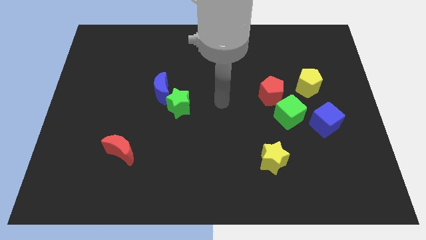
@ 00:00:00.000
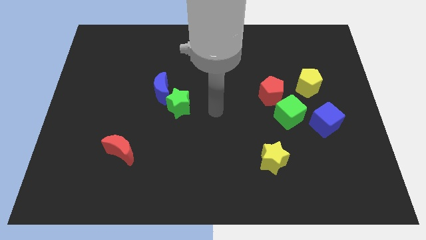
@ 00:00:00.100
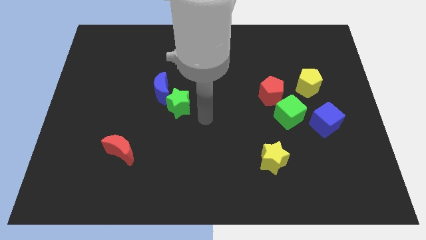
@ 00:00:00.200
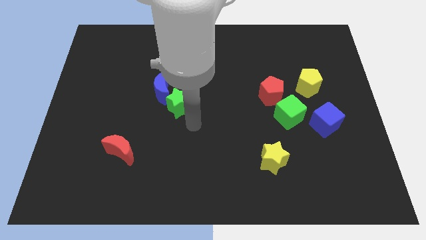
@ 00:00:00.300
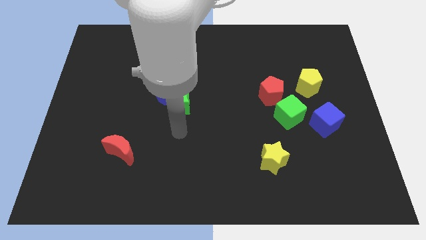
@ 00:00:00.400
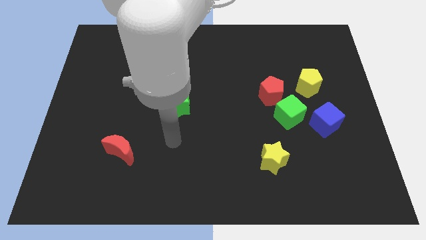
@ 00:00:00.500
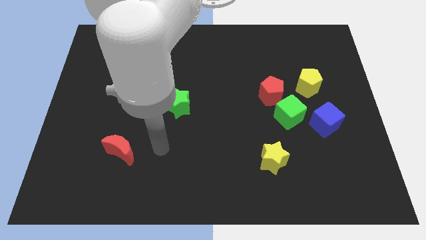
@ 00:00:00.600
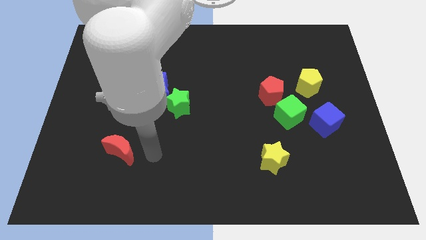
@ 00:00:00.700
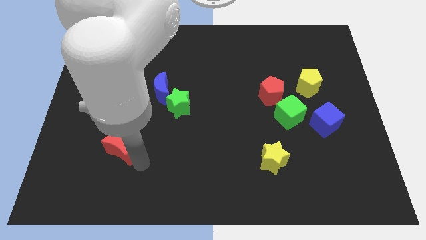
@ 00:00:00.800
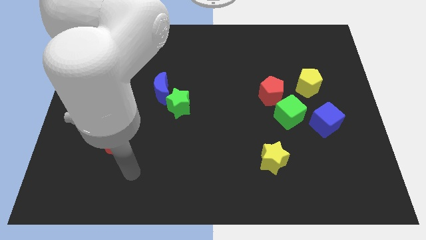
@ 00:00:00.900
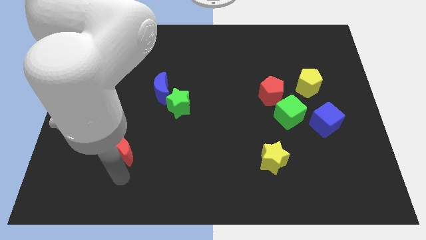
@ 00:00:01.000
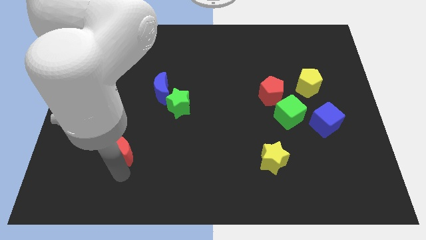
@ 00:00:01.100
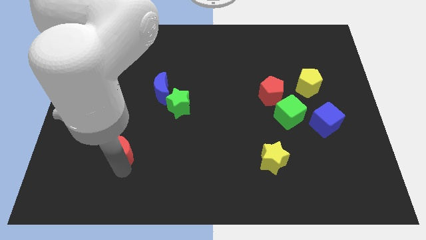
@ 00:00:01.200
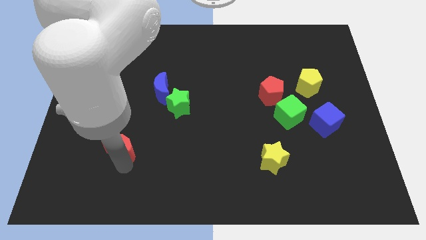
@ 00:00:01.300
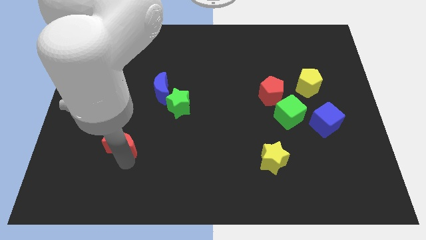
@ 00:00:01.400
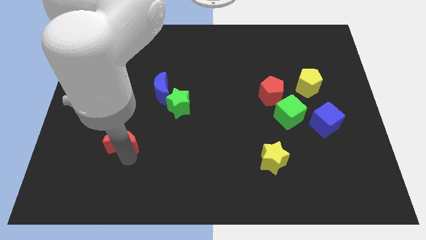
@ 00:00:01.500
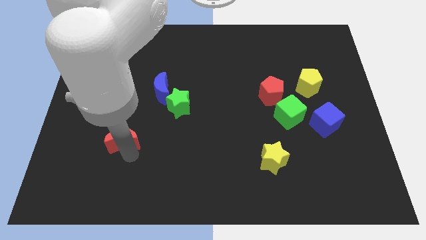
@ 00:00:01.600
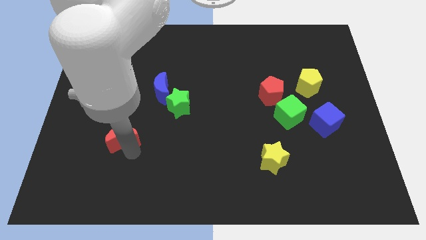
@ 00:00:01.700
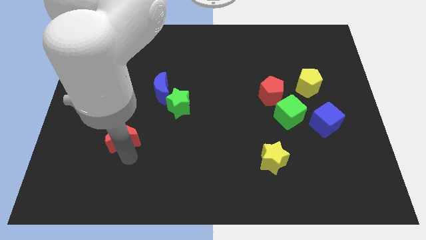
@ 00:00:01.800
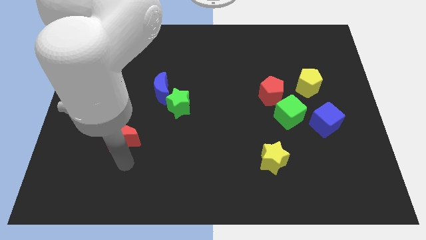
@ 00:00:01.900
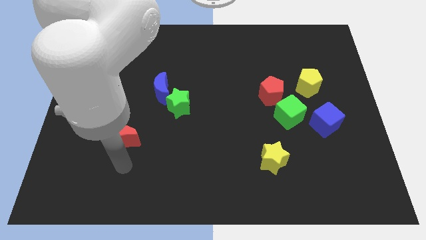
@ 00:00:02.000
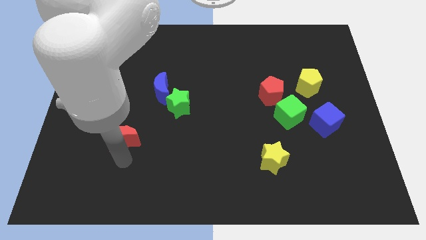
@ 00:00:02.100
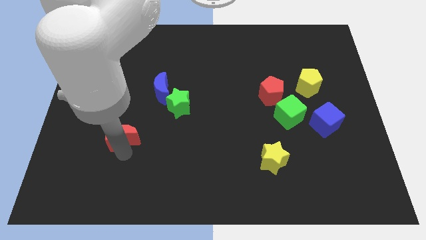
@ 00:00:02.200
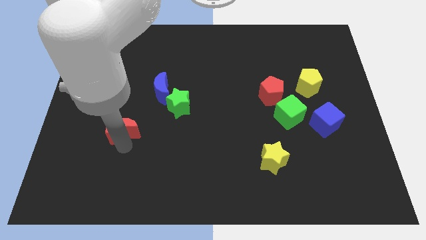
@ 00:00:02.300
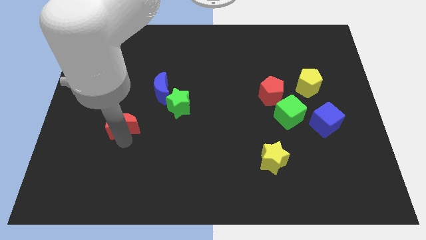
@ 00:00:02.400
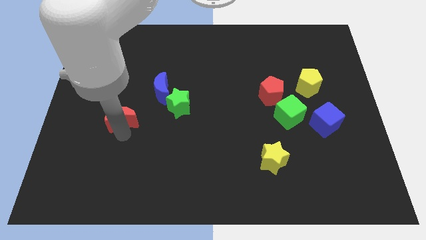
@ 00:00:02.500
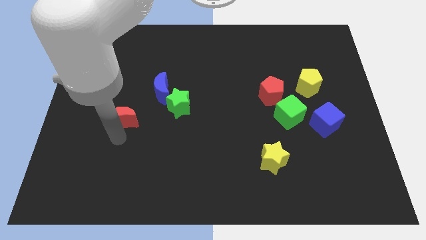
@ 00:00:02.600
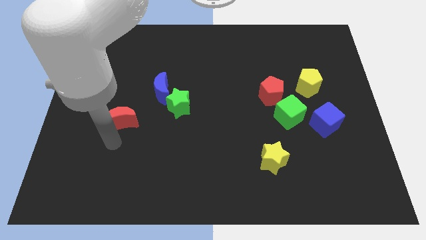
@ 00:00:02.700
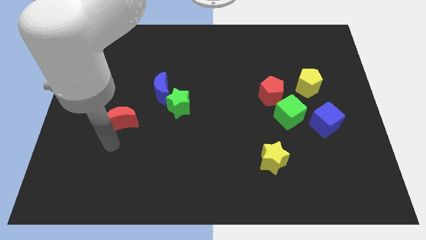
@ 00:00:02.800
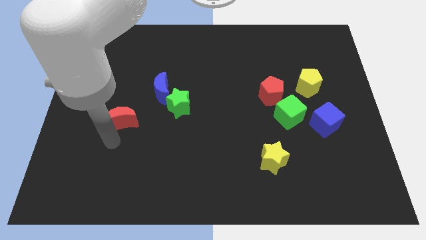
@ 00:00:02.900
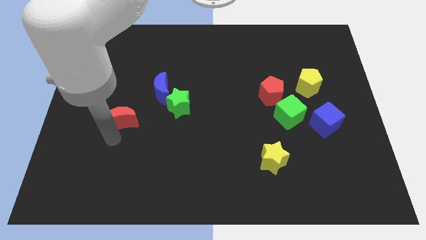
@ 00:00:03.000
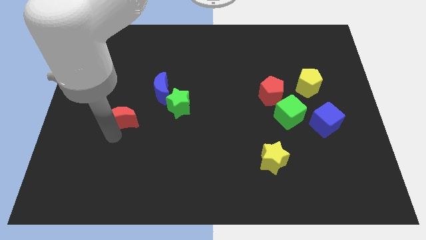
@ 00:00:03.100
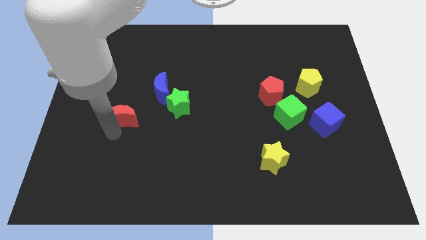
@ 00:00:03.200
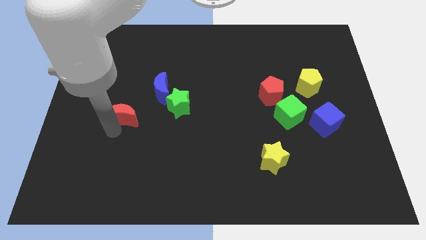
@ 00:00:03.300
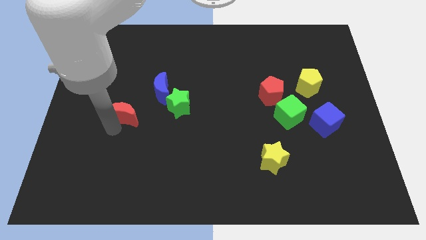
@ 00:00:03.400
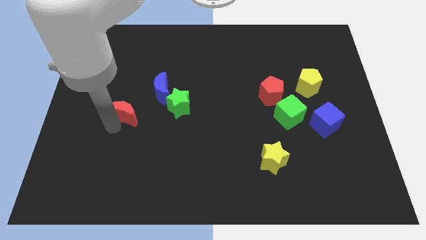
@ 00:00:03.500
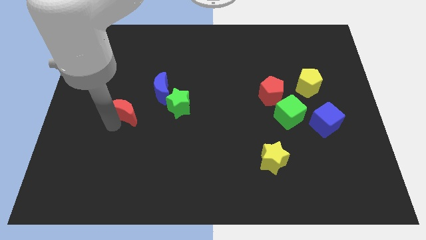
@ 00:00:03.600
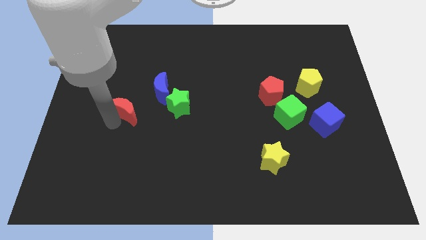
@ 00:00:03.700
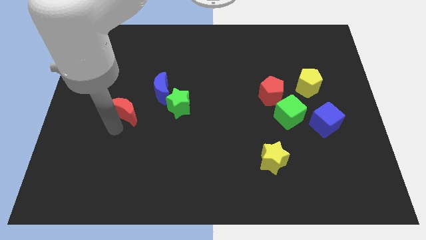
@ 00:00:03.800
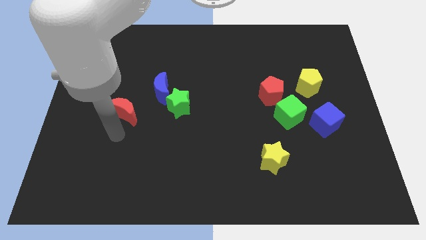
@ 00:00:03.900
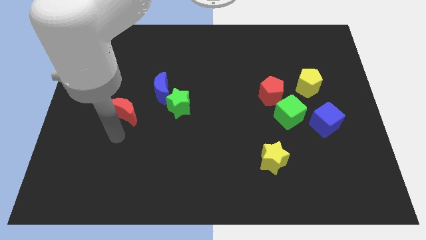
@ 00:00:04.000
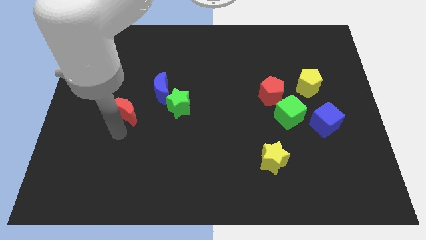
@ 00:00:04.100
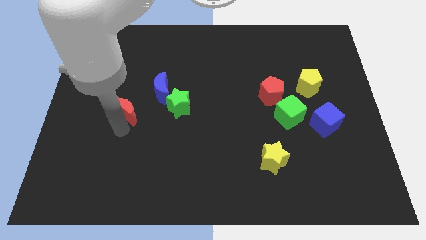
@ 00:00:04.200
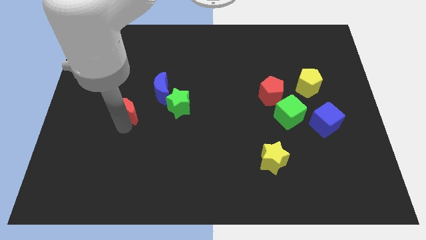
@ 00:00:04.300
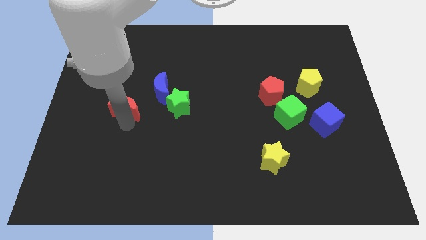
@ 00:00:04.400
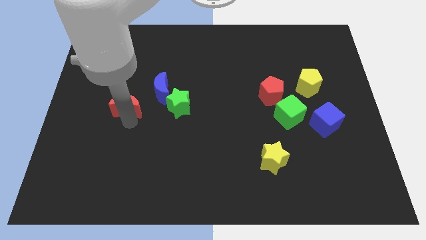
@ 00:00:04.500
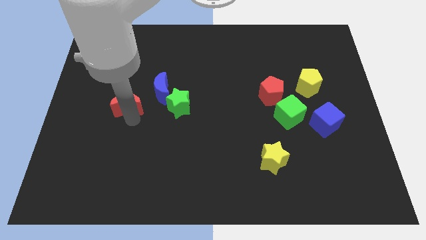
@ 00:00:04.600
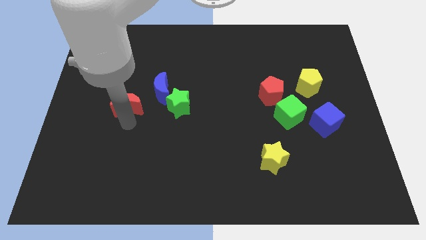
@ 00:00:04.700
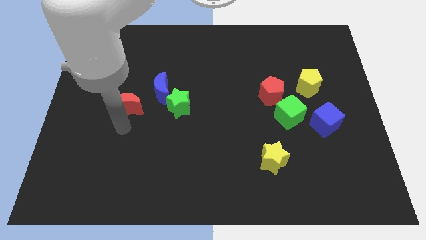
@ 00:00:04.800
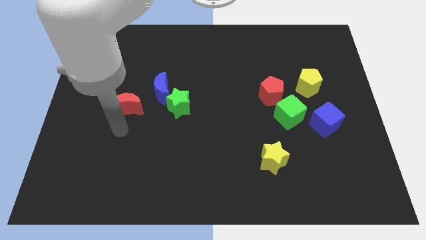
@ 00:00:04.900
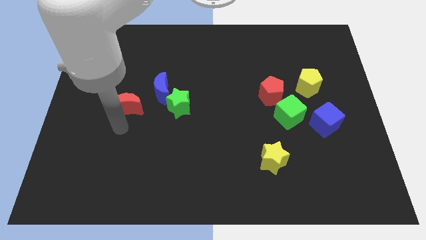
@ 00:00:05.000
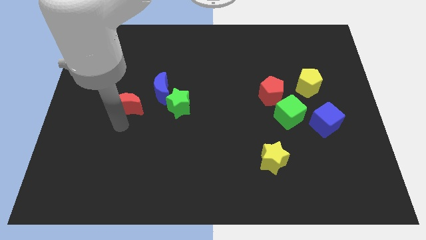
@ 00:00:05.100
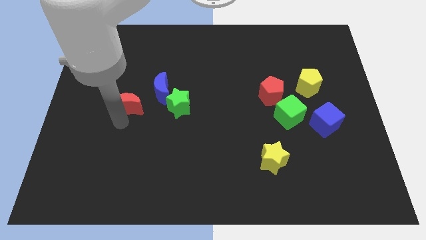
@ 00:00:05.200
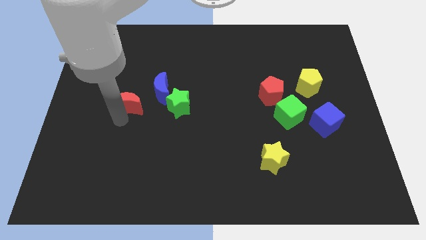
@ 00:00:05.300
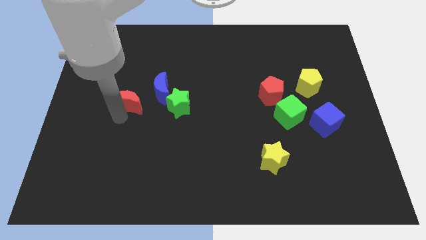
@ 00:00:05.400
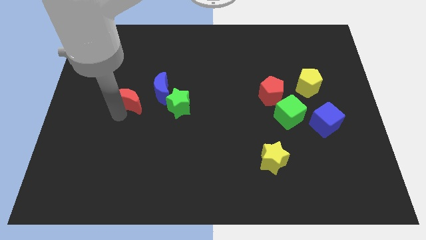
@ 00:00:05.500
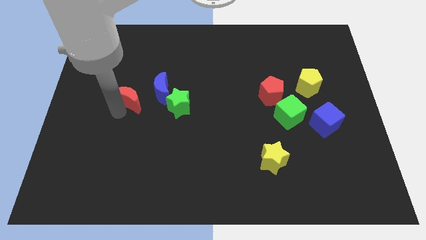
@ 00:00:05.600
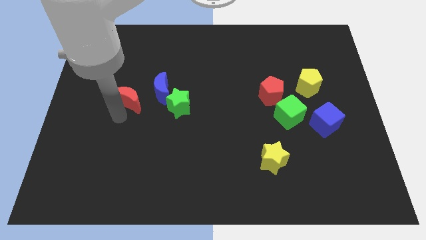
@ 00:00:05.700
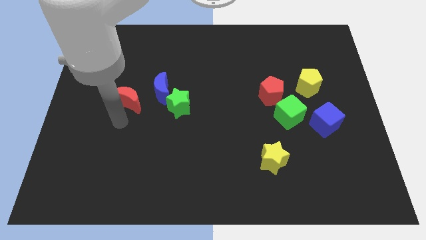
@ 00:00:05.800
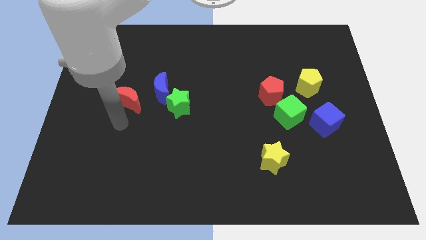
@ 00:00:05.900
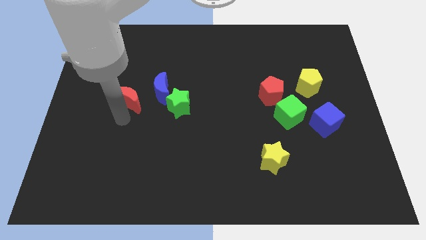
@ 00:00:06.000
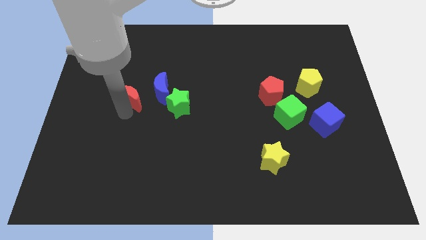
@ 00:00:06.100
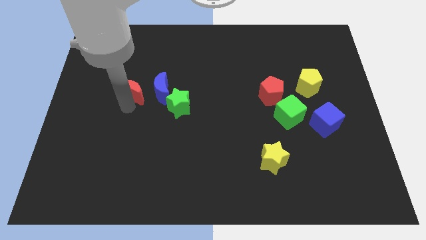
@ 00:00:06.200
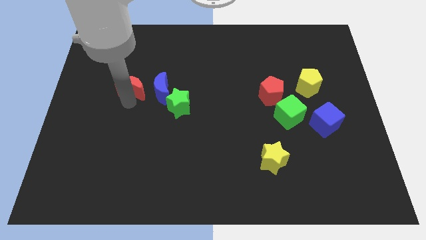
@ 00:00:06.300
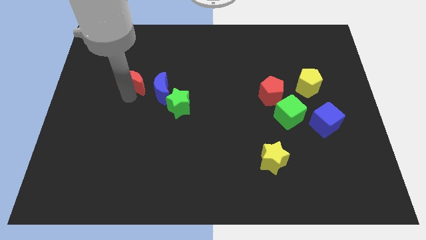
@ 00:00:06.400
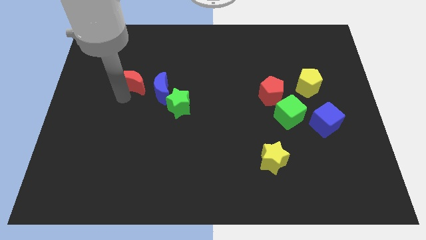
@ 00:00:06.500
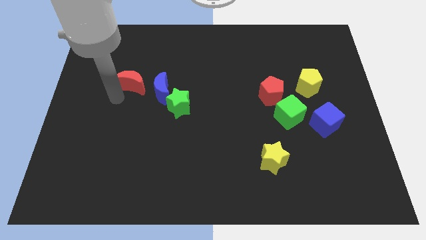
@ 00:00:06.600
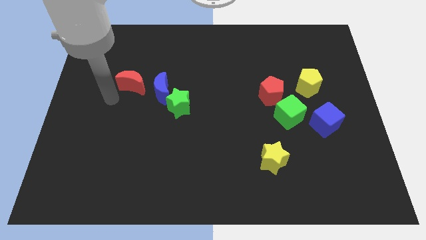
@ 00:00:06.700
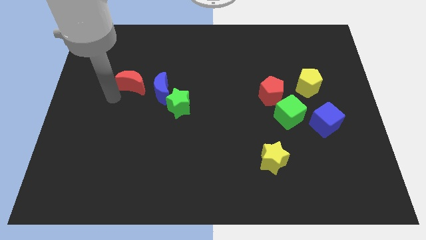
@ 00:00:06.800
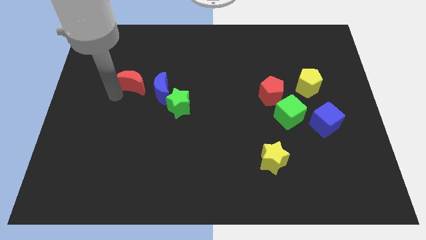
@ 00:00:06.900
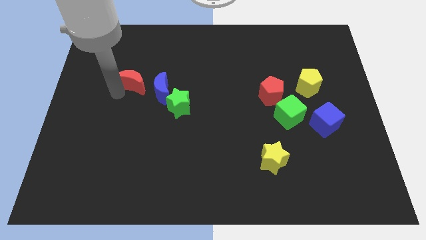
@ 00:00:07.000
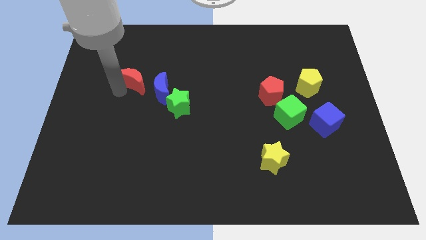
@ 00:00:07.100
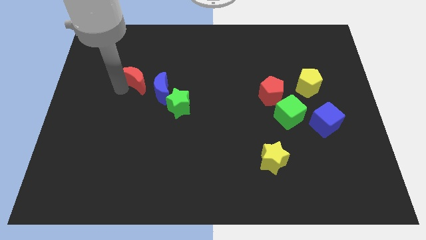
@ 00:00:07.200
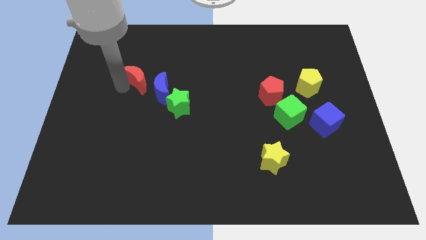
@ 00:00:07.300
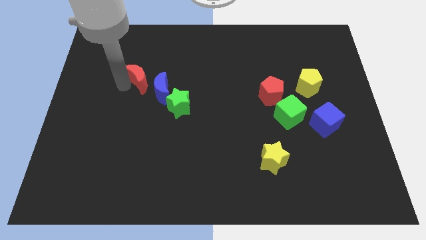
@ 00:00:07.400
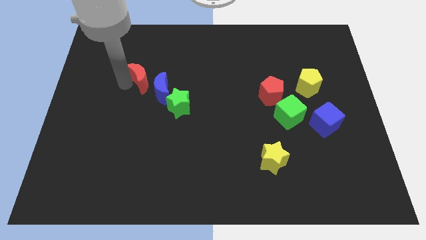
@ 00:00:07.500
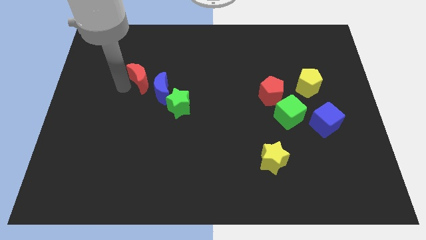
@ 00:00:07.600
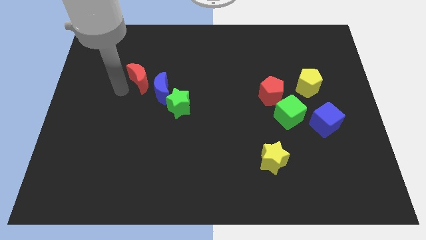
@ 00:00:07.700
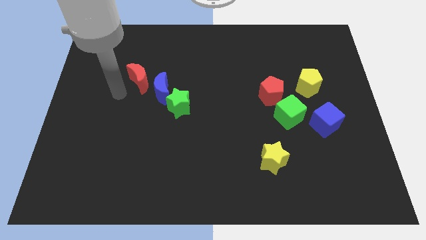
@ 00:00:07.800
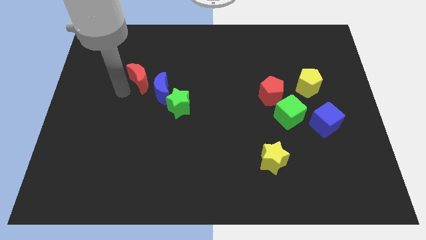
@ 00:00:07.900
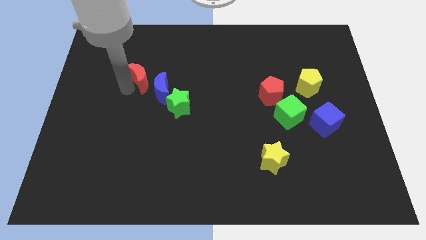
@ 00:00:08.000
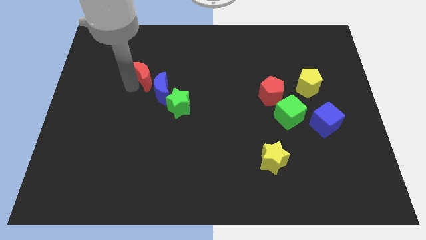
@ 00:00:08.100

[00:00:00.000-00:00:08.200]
move the red moon above the blue moon
